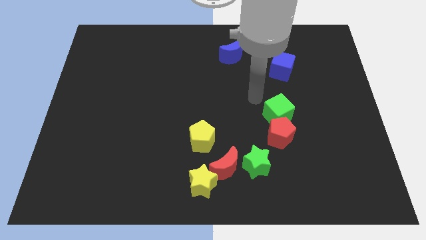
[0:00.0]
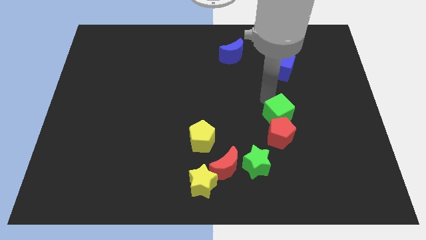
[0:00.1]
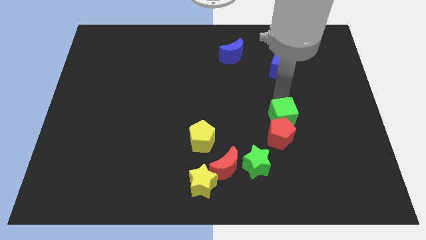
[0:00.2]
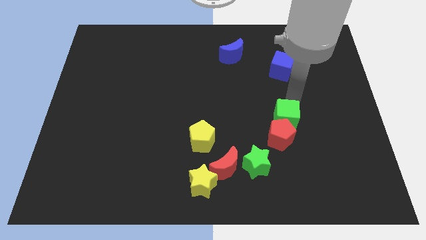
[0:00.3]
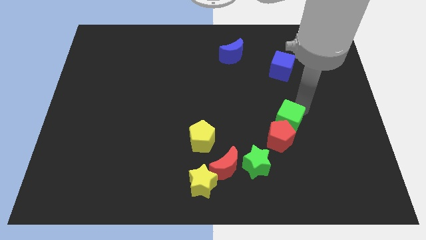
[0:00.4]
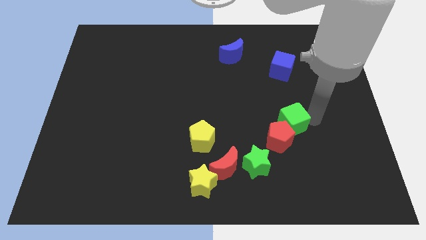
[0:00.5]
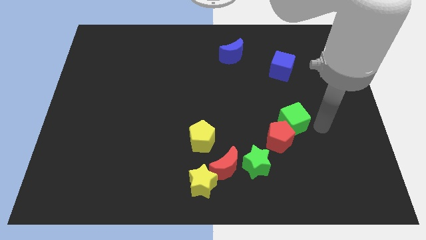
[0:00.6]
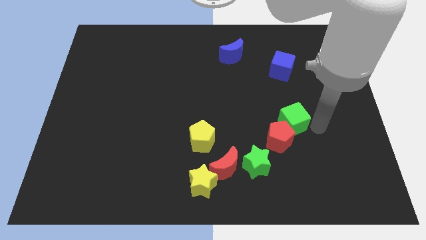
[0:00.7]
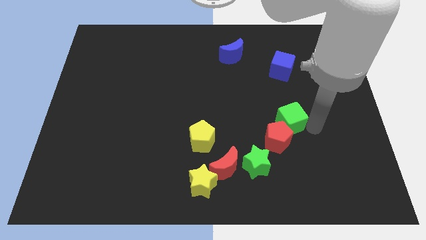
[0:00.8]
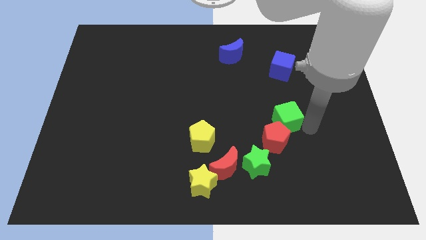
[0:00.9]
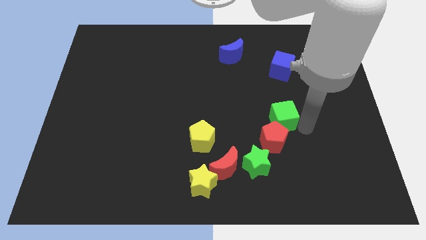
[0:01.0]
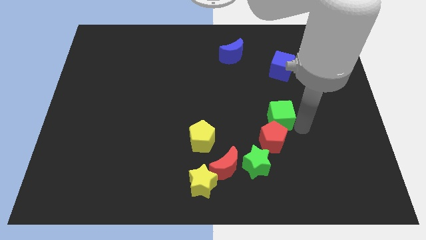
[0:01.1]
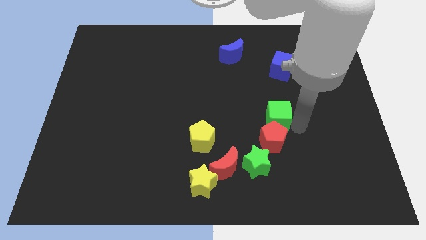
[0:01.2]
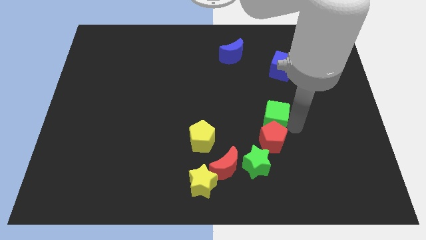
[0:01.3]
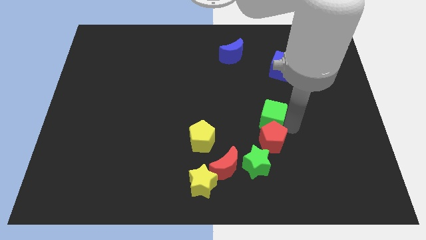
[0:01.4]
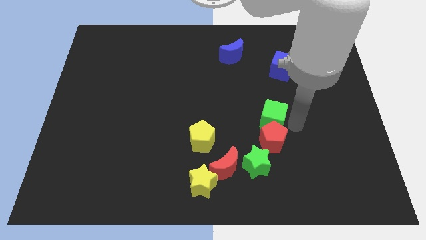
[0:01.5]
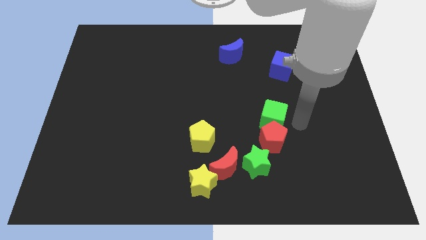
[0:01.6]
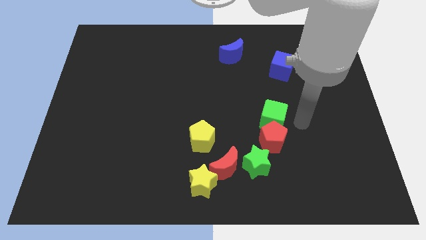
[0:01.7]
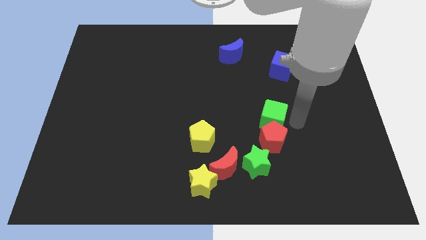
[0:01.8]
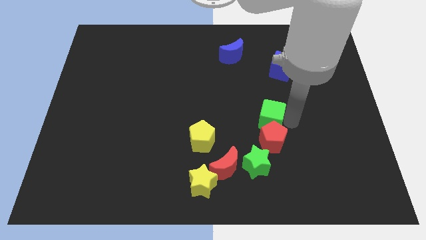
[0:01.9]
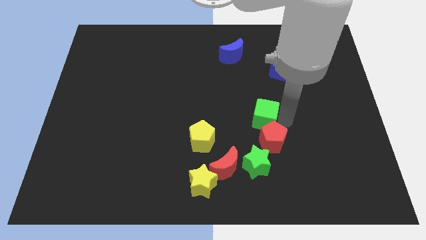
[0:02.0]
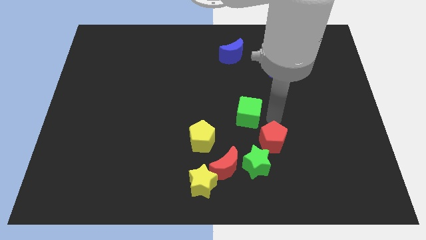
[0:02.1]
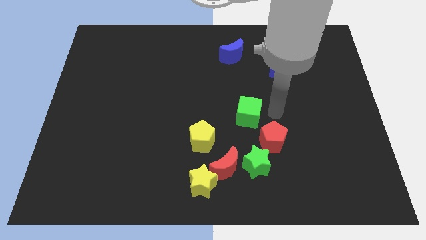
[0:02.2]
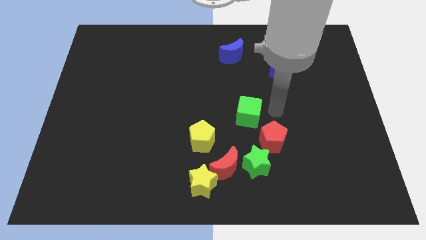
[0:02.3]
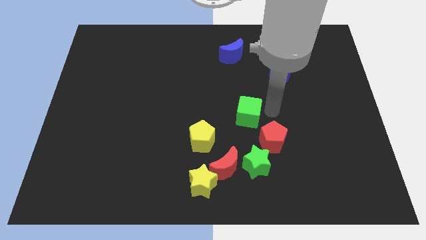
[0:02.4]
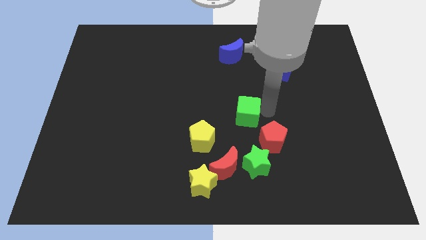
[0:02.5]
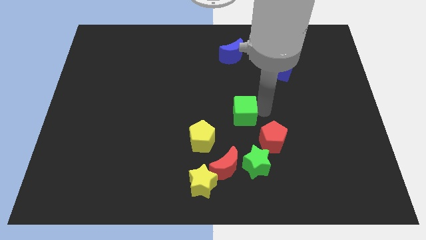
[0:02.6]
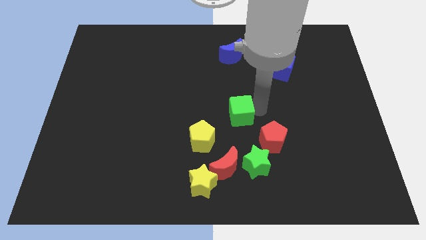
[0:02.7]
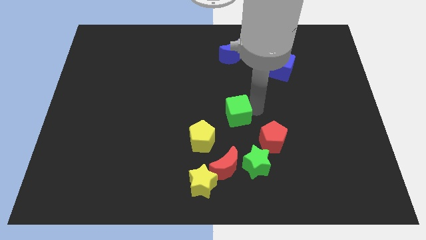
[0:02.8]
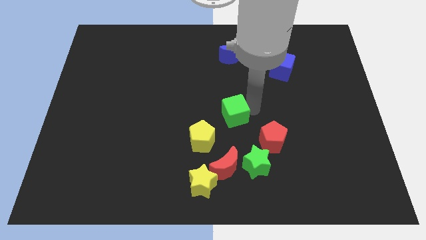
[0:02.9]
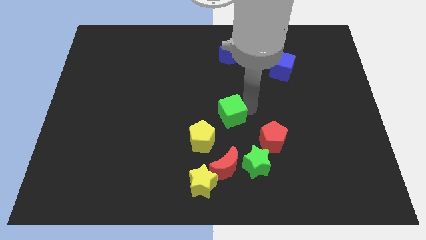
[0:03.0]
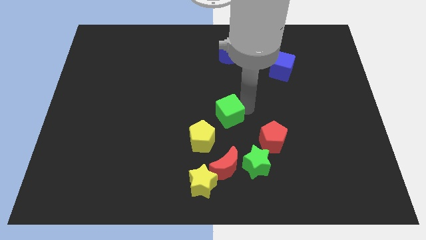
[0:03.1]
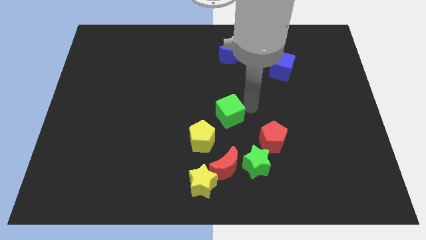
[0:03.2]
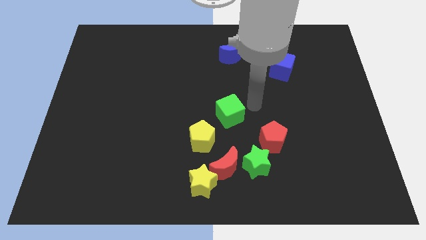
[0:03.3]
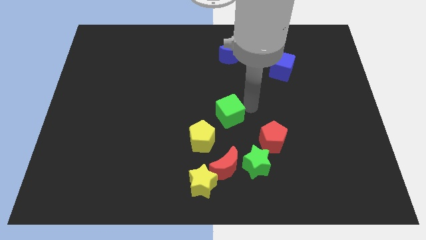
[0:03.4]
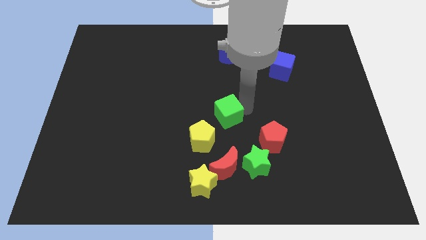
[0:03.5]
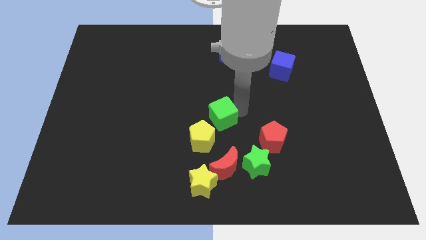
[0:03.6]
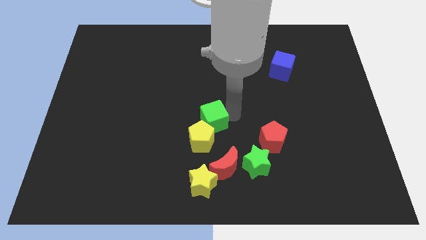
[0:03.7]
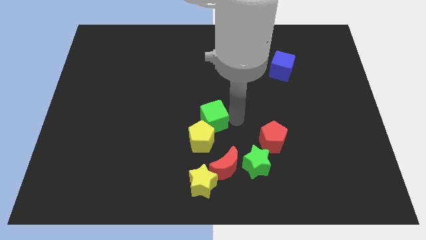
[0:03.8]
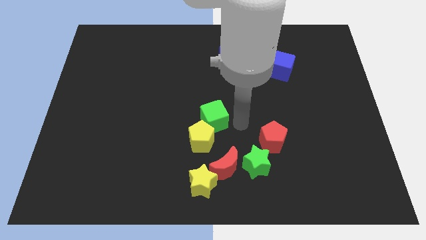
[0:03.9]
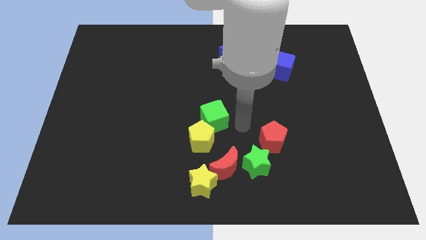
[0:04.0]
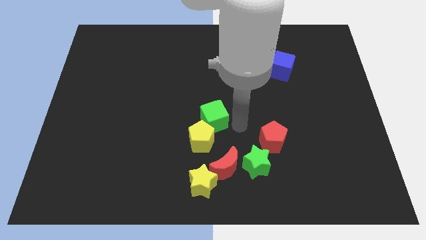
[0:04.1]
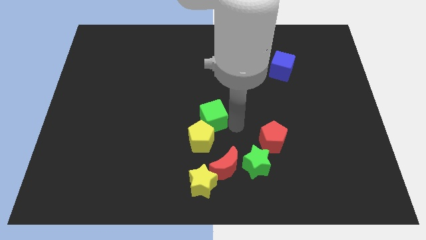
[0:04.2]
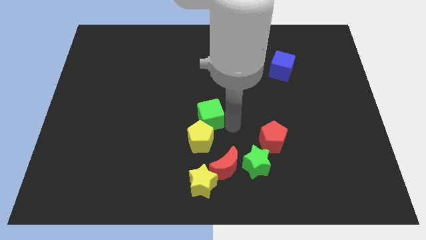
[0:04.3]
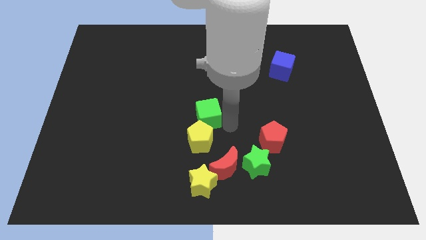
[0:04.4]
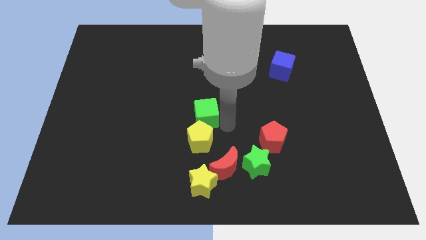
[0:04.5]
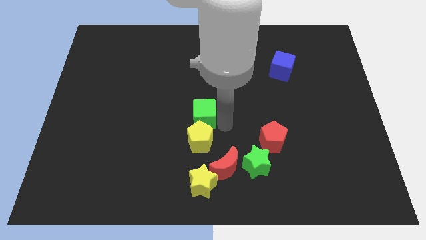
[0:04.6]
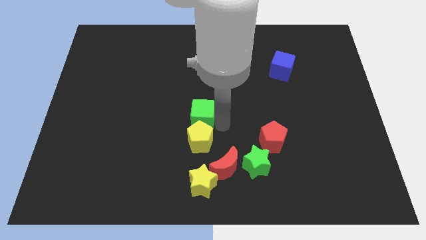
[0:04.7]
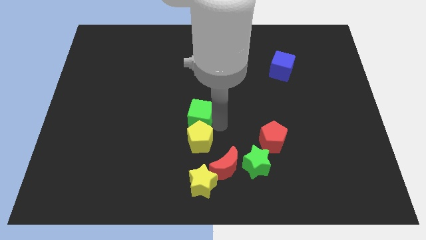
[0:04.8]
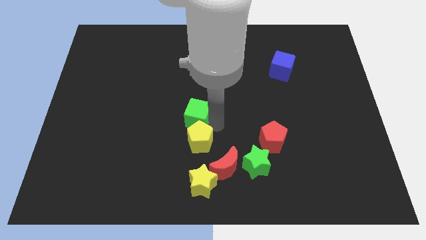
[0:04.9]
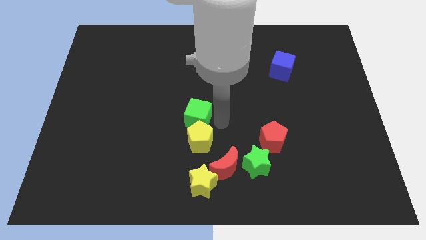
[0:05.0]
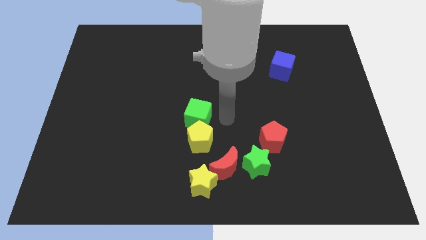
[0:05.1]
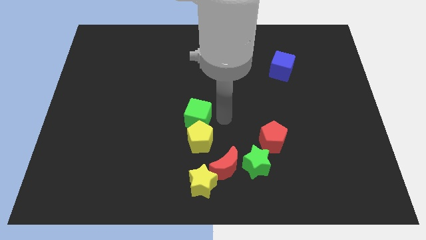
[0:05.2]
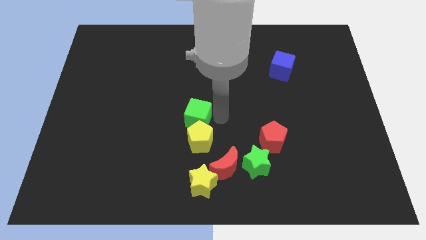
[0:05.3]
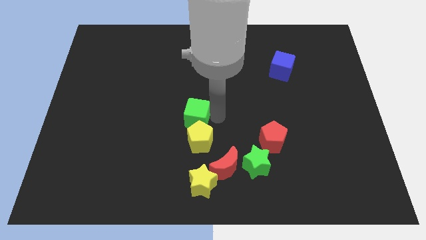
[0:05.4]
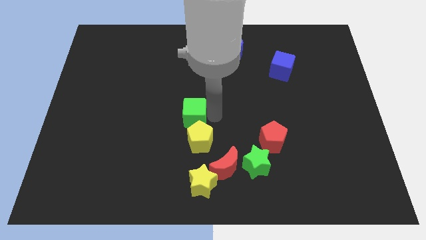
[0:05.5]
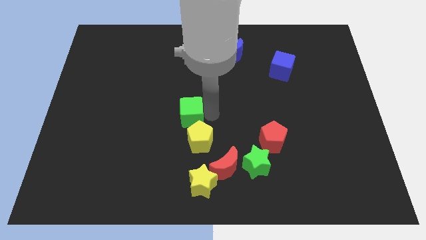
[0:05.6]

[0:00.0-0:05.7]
move the green cube to the left

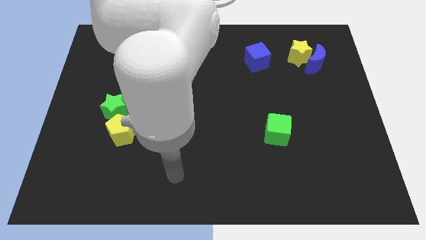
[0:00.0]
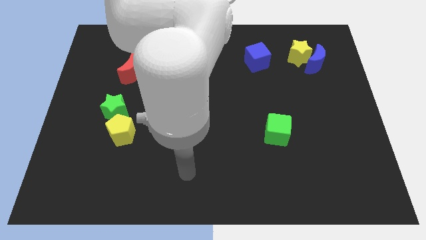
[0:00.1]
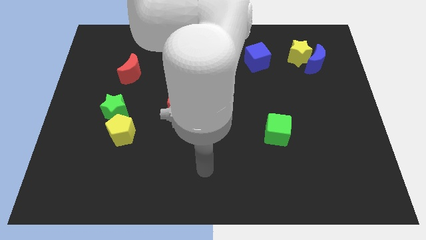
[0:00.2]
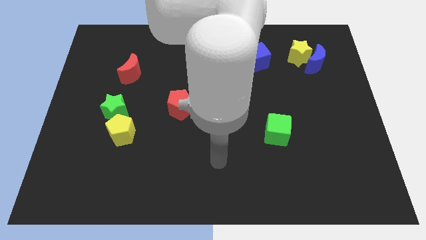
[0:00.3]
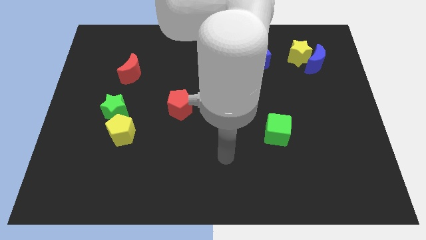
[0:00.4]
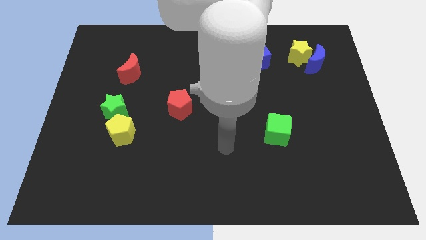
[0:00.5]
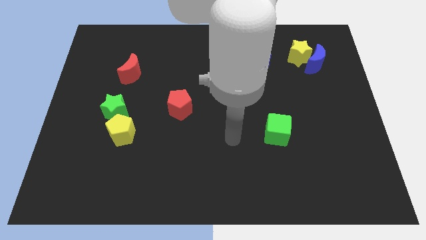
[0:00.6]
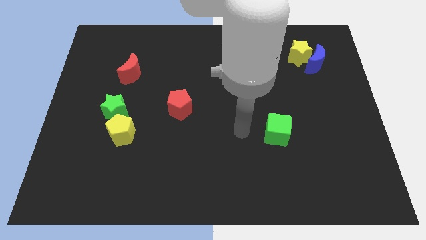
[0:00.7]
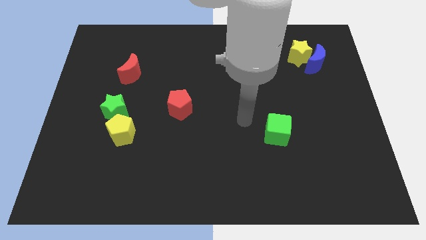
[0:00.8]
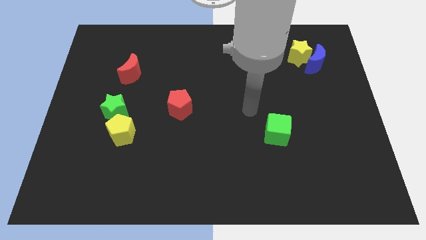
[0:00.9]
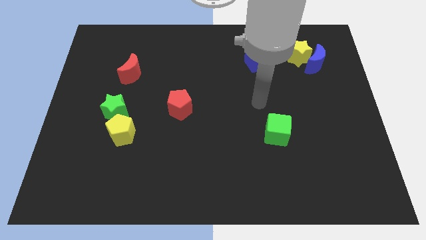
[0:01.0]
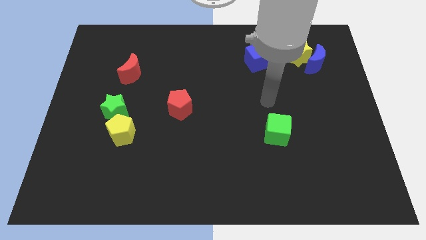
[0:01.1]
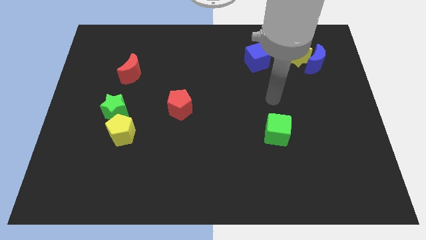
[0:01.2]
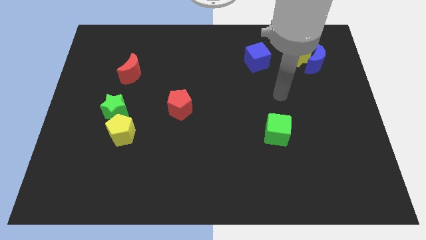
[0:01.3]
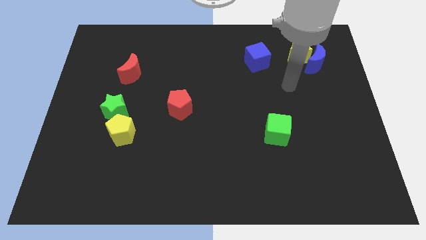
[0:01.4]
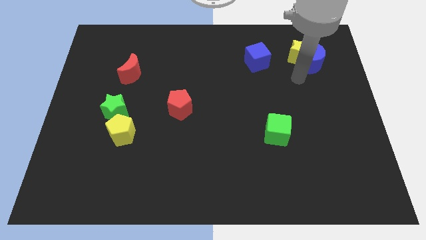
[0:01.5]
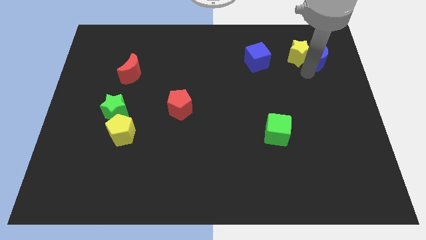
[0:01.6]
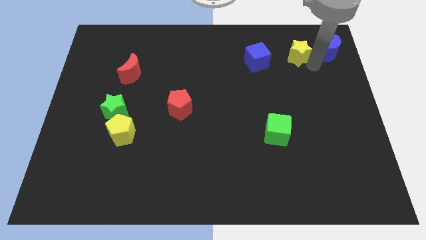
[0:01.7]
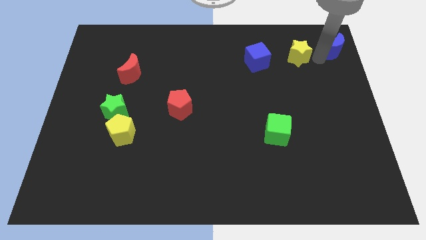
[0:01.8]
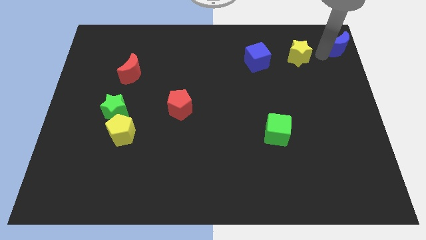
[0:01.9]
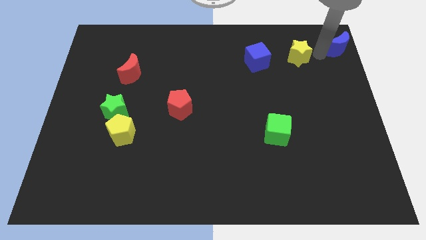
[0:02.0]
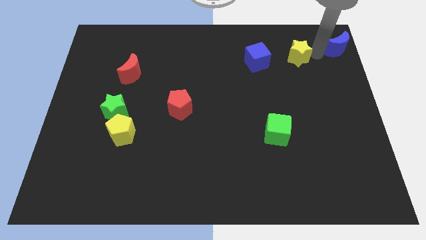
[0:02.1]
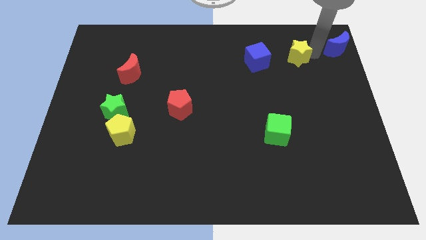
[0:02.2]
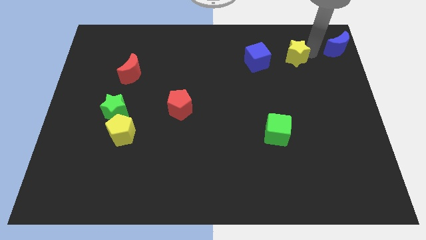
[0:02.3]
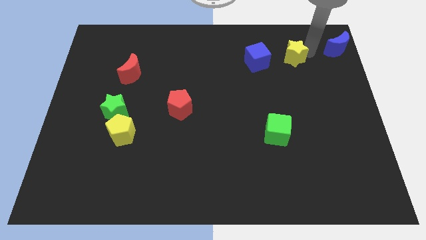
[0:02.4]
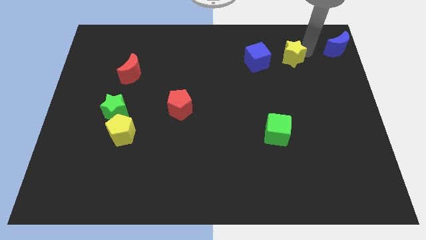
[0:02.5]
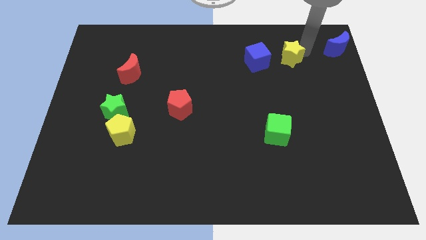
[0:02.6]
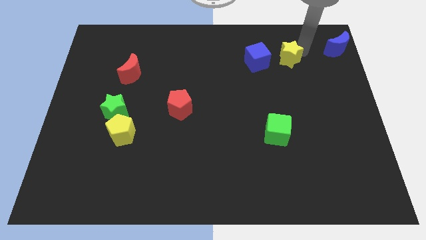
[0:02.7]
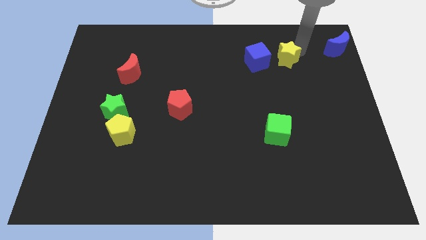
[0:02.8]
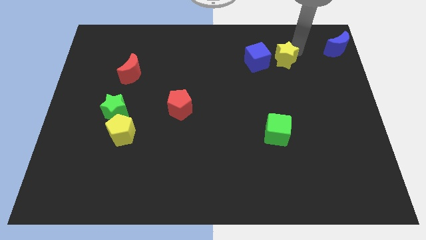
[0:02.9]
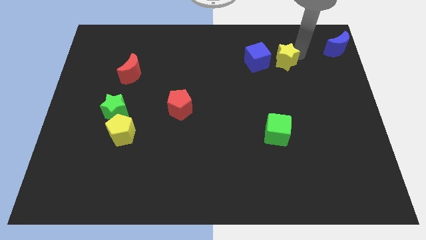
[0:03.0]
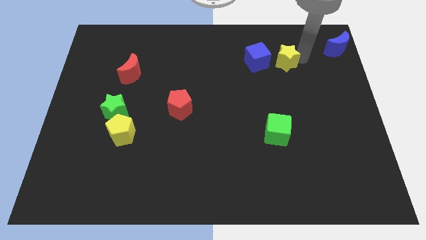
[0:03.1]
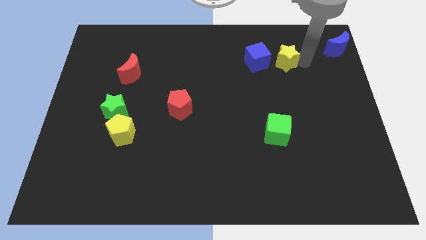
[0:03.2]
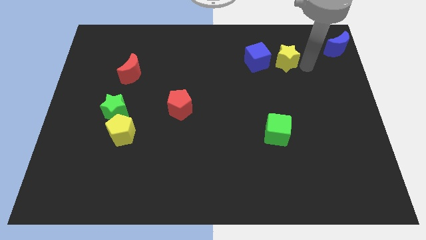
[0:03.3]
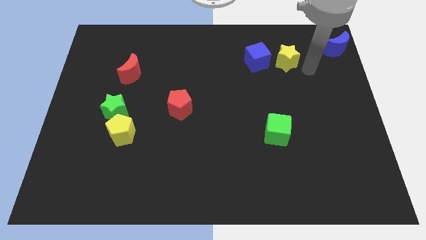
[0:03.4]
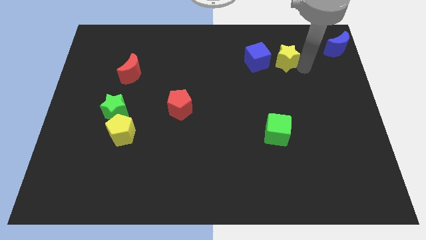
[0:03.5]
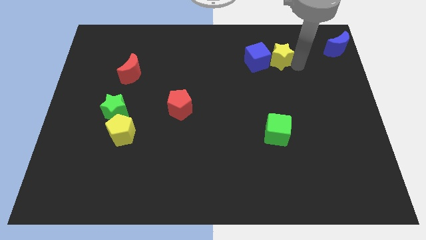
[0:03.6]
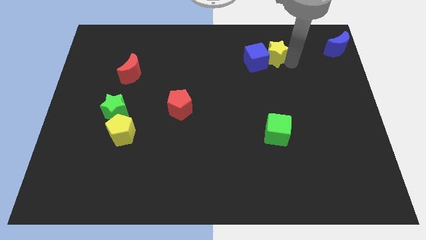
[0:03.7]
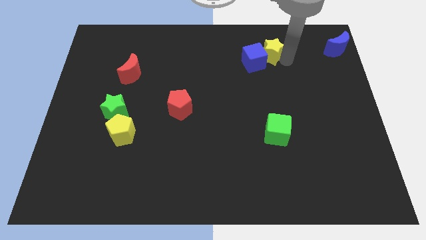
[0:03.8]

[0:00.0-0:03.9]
push the yellow star a little bit left
